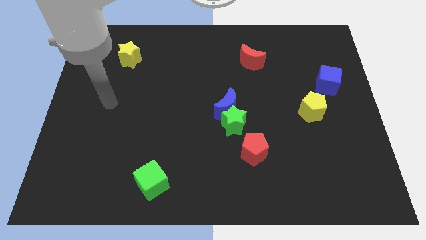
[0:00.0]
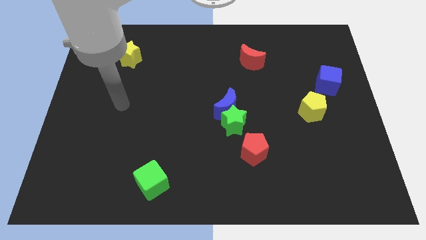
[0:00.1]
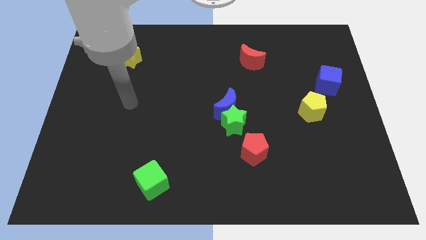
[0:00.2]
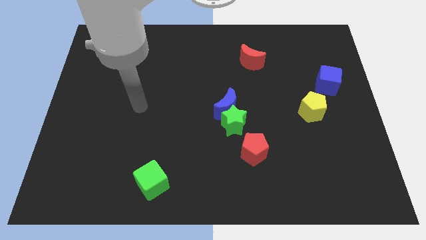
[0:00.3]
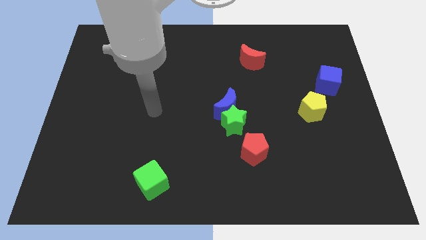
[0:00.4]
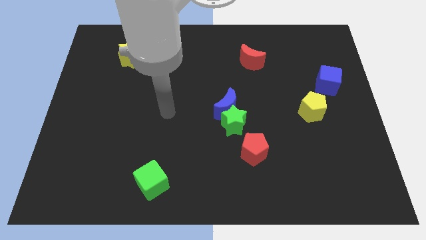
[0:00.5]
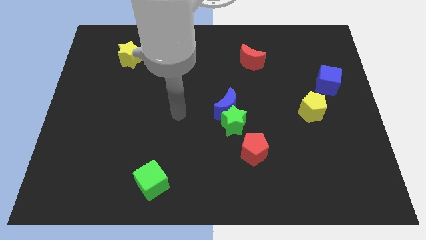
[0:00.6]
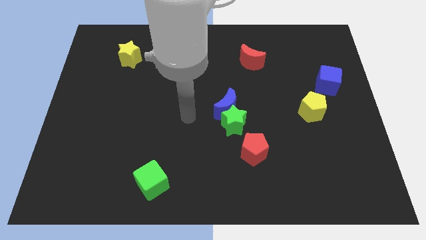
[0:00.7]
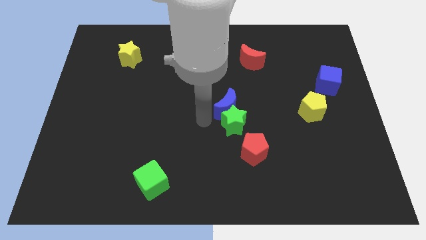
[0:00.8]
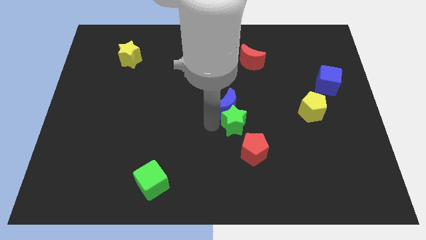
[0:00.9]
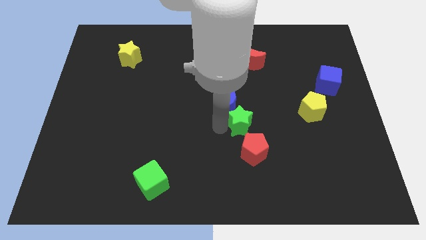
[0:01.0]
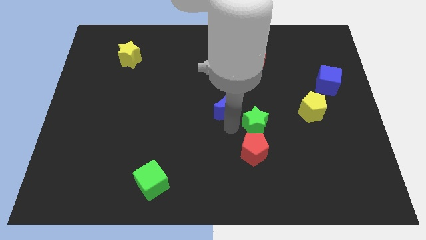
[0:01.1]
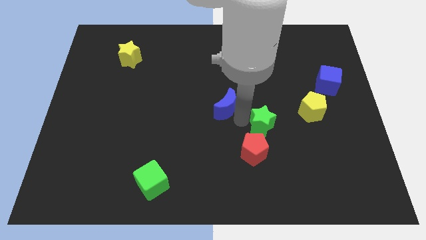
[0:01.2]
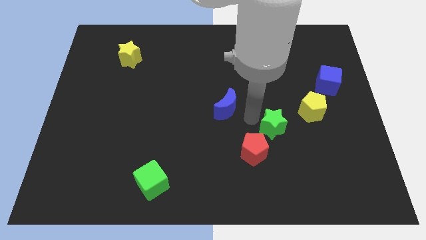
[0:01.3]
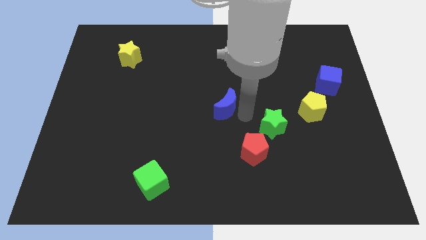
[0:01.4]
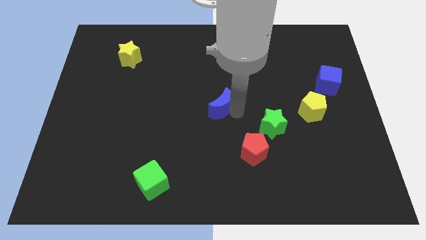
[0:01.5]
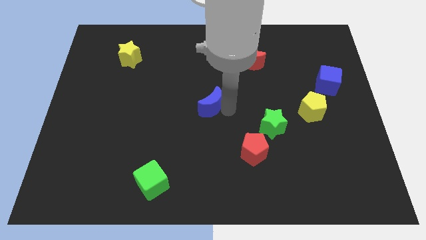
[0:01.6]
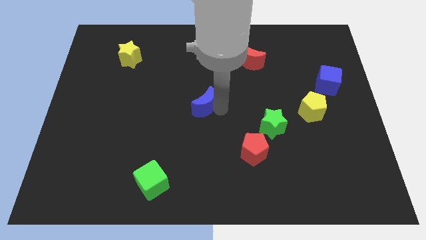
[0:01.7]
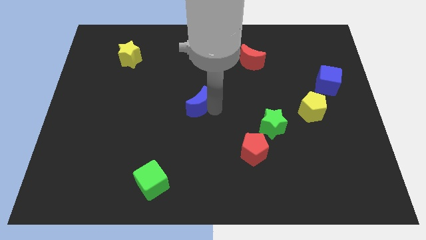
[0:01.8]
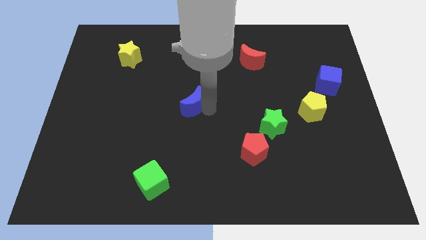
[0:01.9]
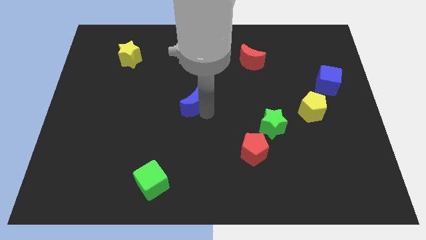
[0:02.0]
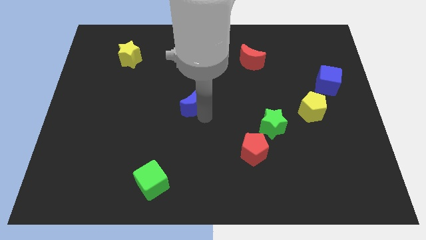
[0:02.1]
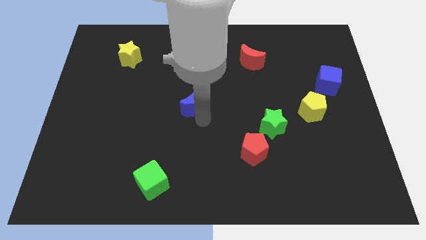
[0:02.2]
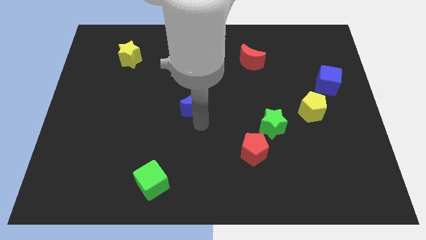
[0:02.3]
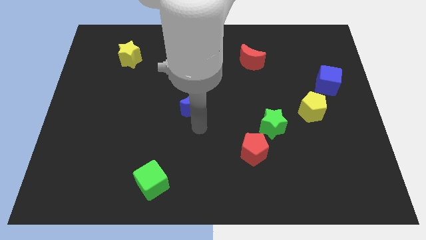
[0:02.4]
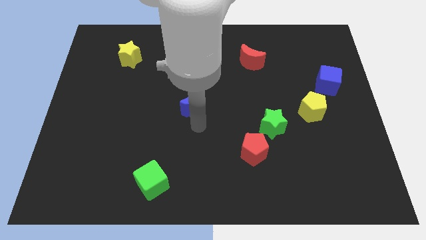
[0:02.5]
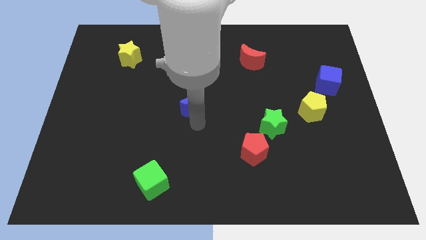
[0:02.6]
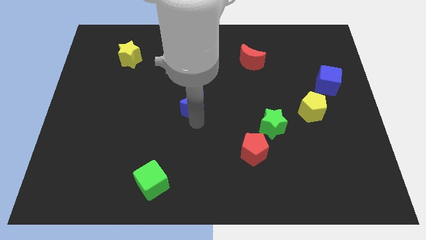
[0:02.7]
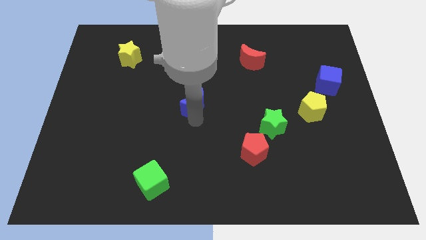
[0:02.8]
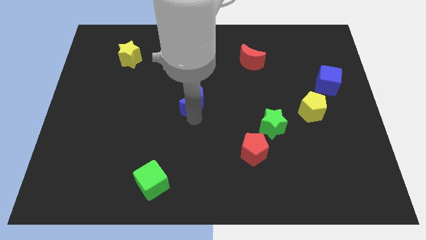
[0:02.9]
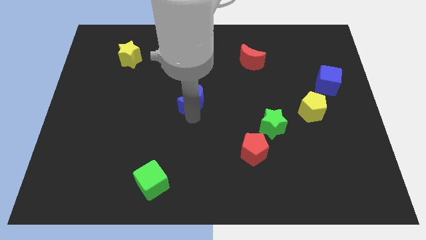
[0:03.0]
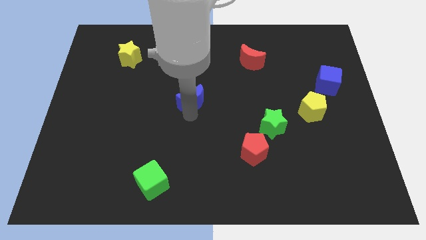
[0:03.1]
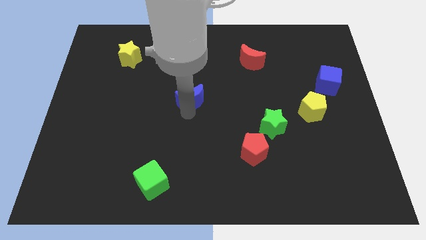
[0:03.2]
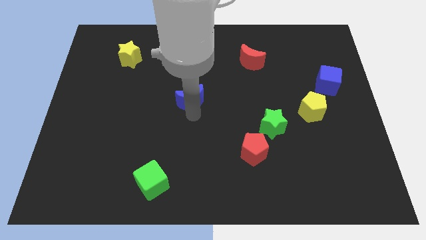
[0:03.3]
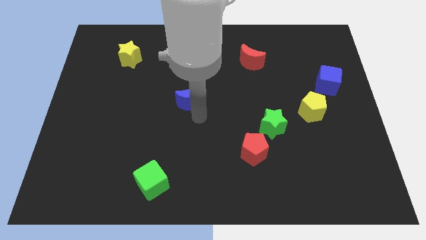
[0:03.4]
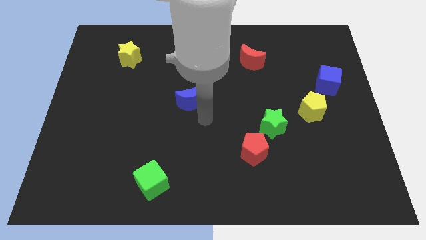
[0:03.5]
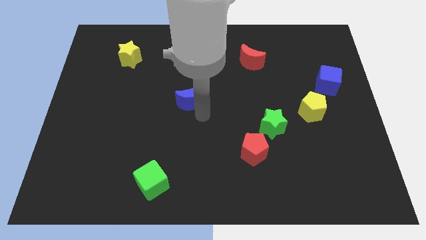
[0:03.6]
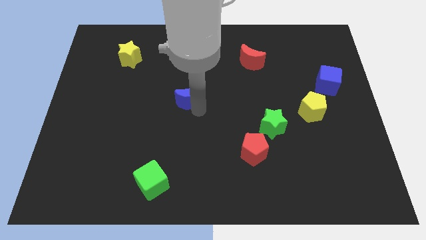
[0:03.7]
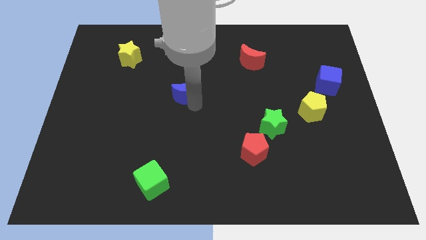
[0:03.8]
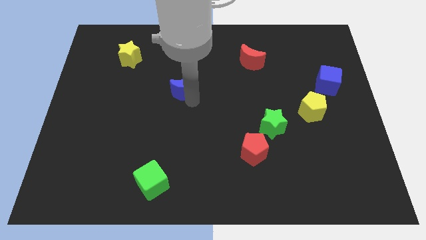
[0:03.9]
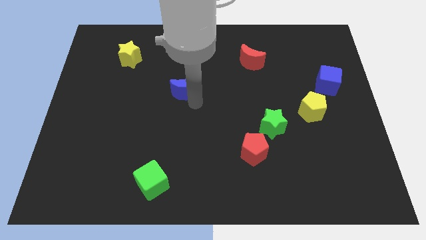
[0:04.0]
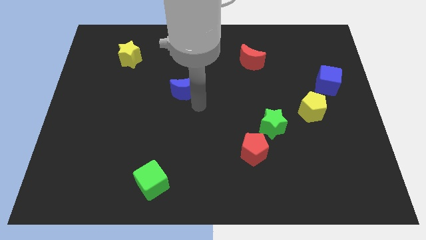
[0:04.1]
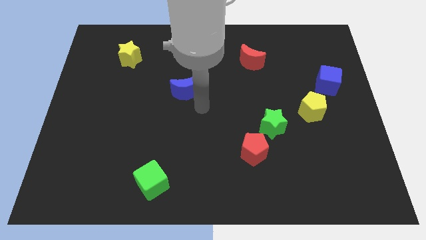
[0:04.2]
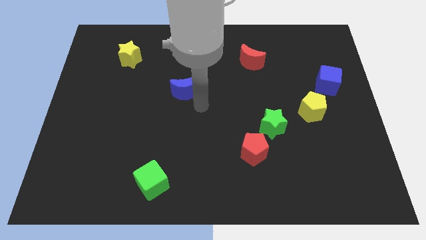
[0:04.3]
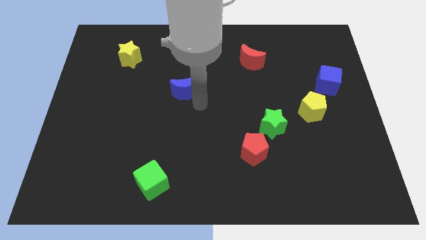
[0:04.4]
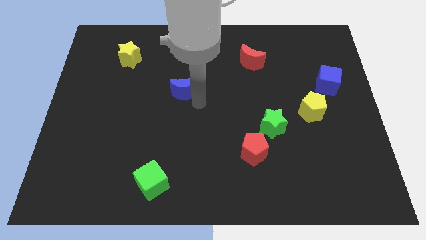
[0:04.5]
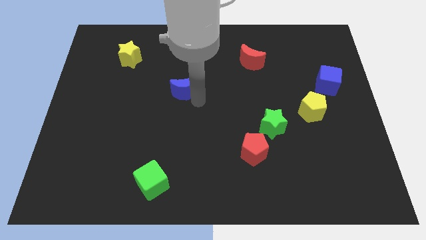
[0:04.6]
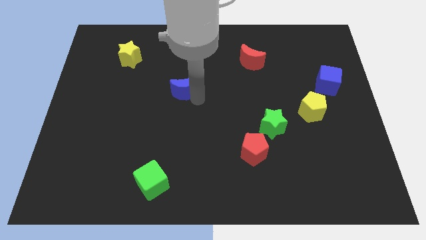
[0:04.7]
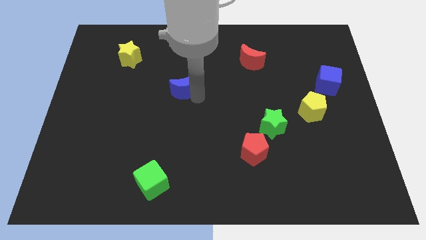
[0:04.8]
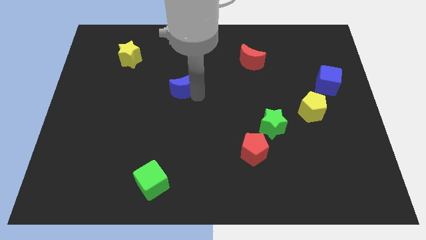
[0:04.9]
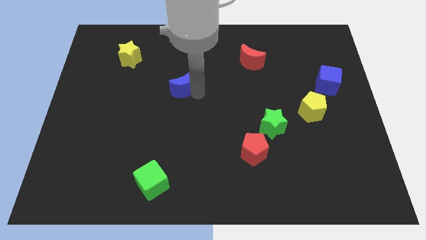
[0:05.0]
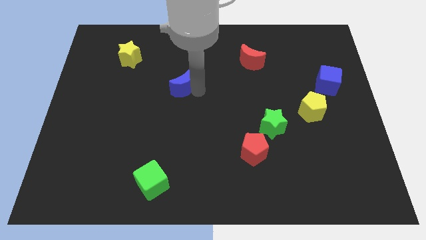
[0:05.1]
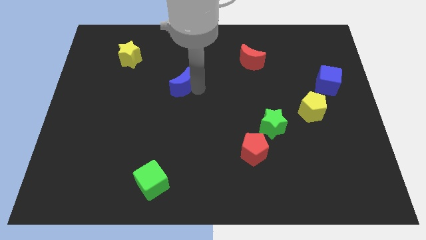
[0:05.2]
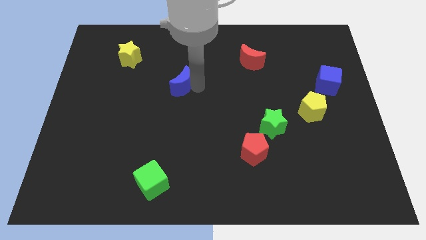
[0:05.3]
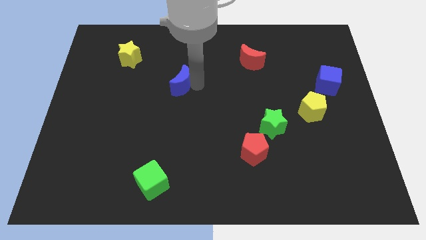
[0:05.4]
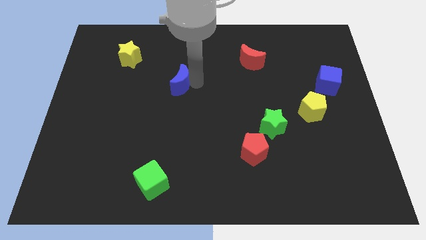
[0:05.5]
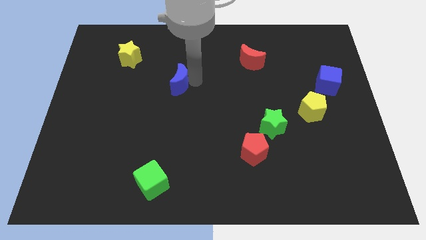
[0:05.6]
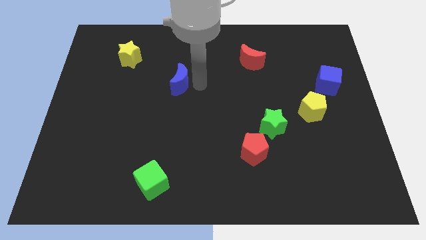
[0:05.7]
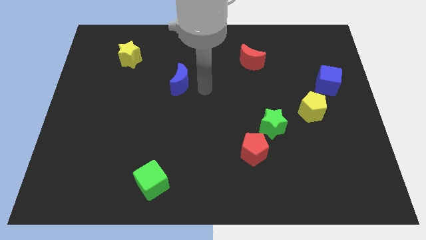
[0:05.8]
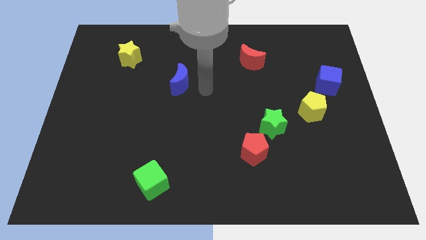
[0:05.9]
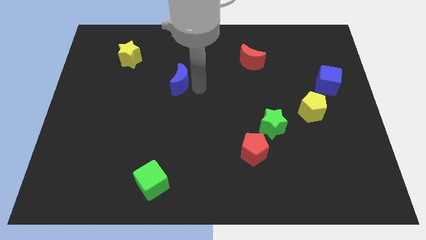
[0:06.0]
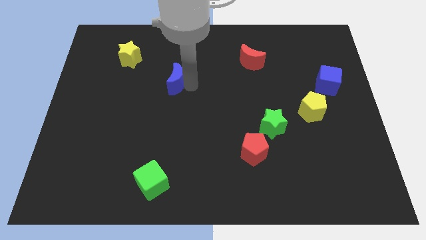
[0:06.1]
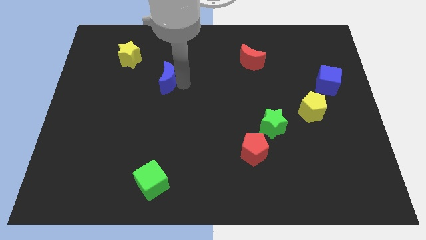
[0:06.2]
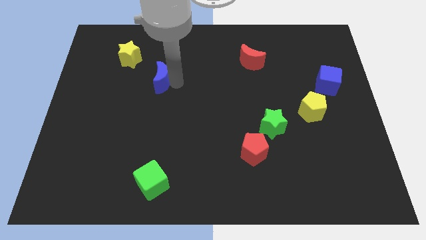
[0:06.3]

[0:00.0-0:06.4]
put the blue moon to the bottom right of the yellow star

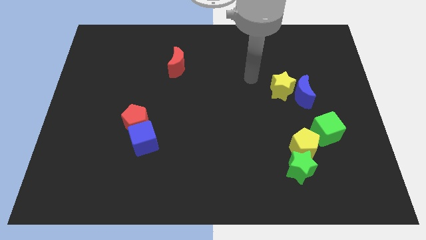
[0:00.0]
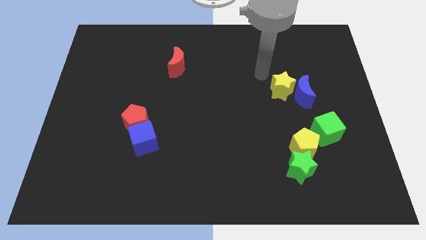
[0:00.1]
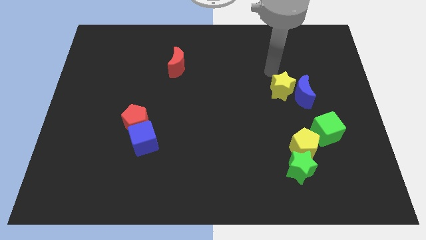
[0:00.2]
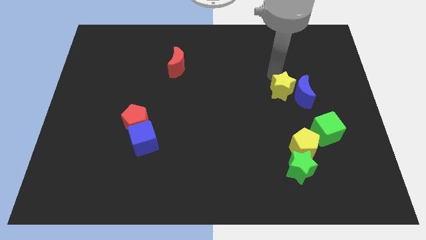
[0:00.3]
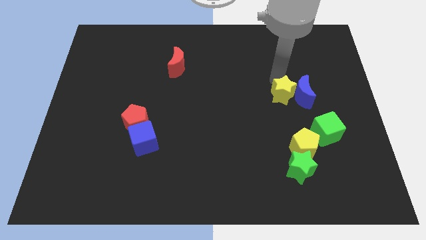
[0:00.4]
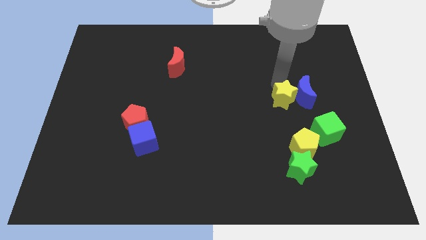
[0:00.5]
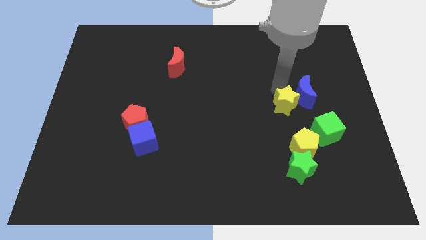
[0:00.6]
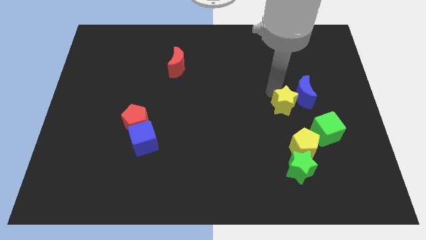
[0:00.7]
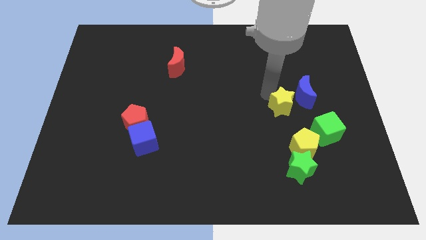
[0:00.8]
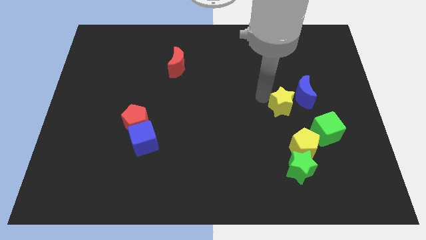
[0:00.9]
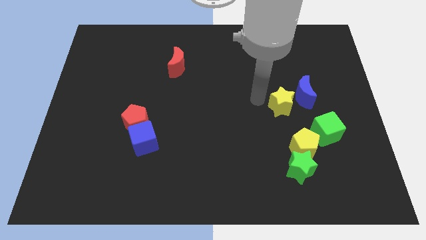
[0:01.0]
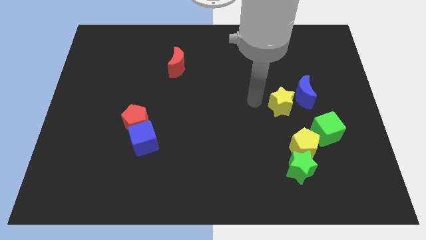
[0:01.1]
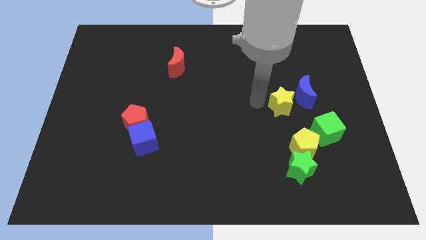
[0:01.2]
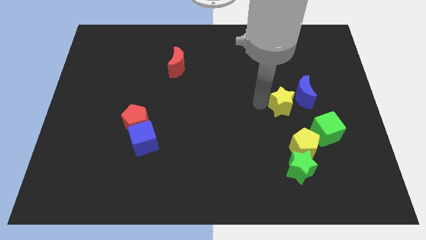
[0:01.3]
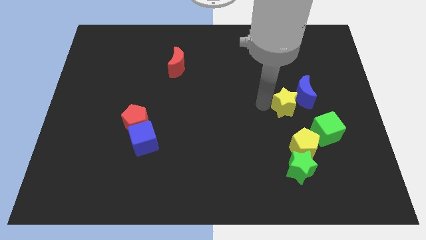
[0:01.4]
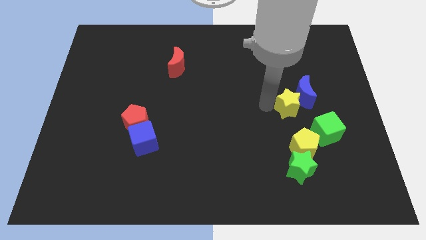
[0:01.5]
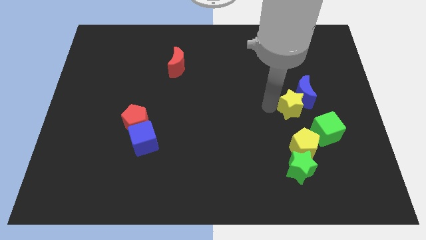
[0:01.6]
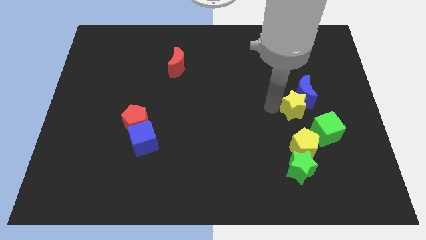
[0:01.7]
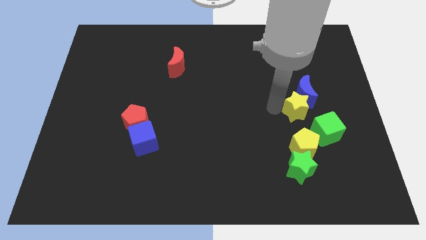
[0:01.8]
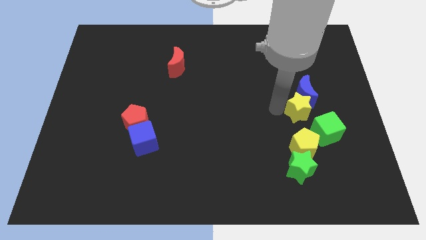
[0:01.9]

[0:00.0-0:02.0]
slide the yellow star to the bottom right side of the blue moon
